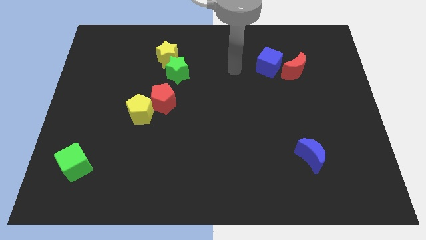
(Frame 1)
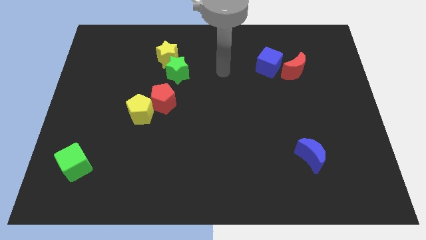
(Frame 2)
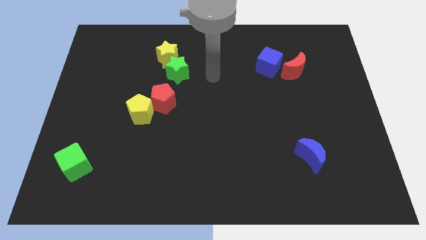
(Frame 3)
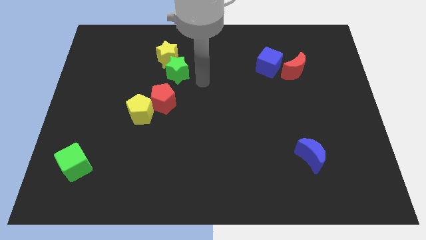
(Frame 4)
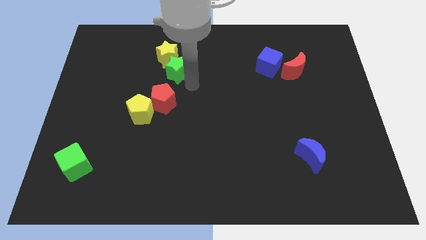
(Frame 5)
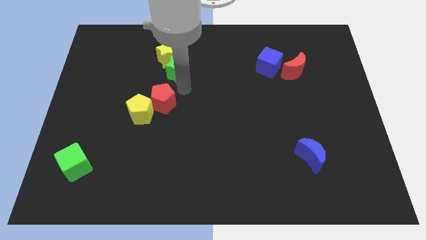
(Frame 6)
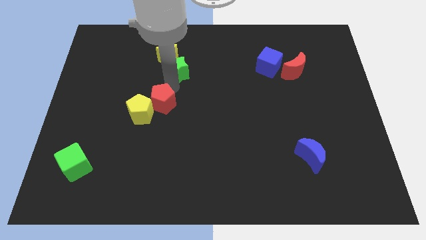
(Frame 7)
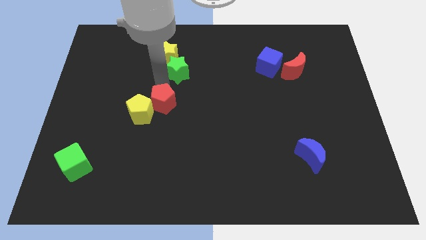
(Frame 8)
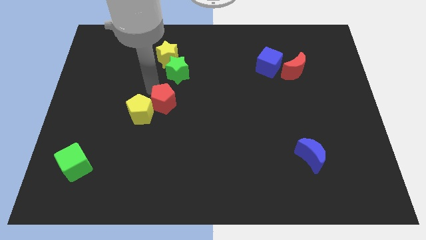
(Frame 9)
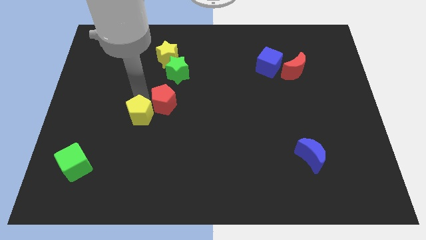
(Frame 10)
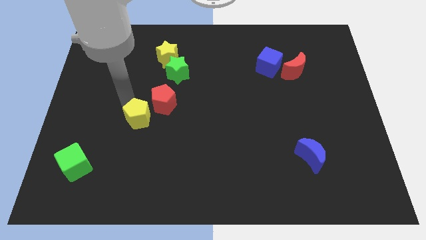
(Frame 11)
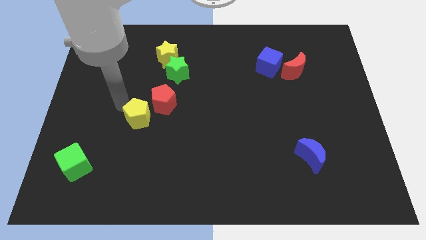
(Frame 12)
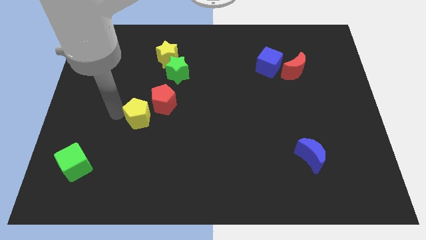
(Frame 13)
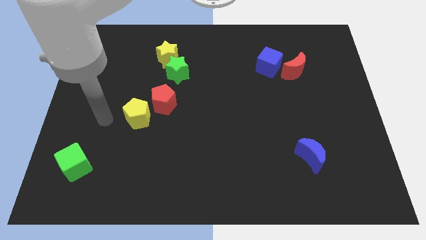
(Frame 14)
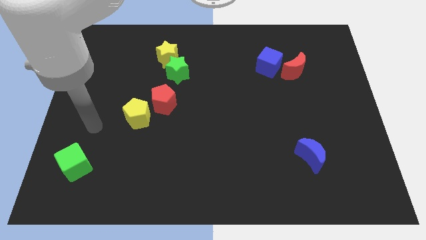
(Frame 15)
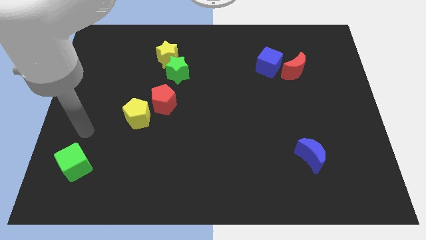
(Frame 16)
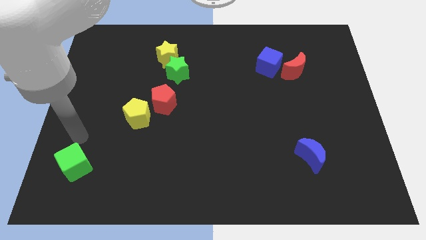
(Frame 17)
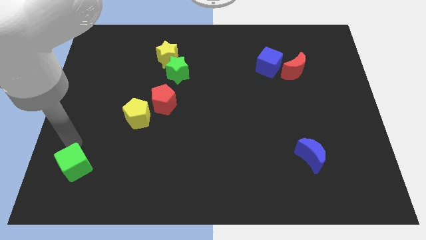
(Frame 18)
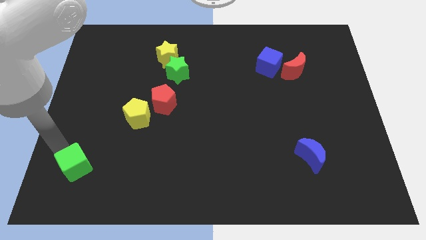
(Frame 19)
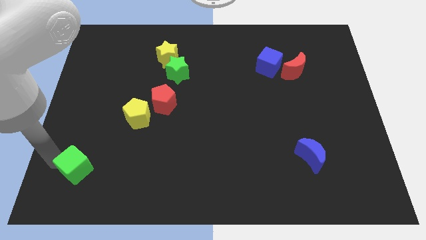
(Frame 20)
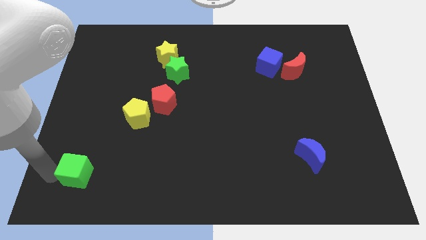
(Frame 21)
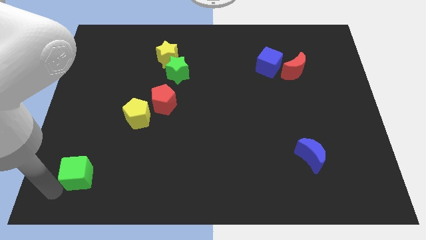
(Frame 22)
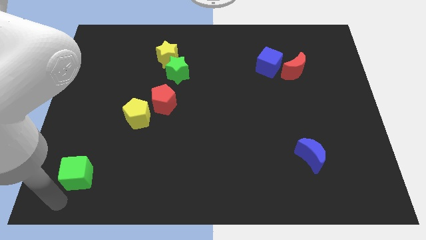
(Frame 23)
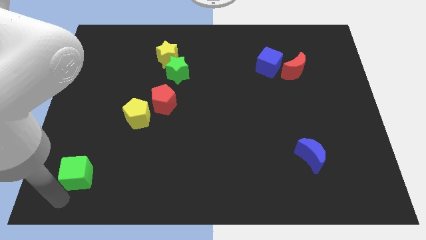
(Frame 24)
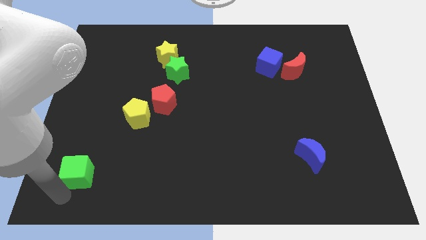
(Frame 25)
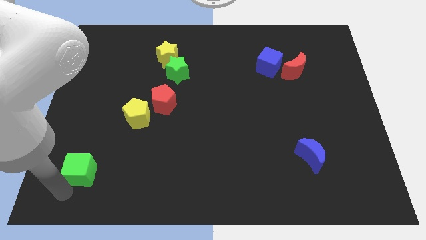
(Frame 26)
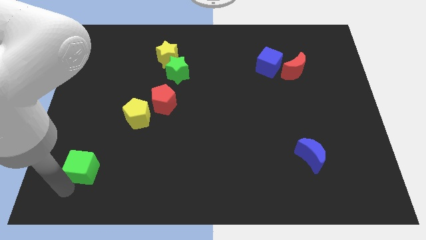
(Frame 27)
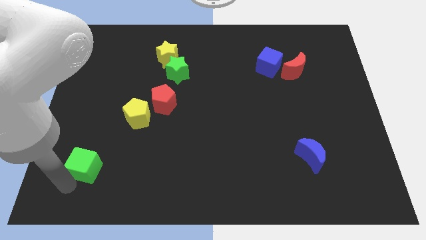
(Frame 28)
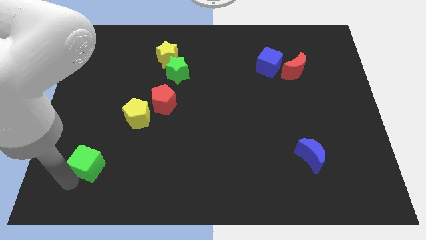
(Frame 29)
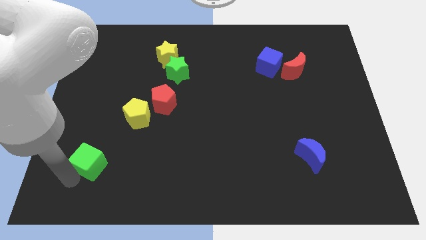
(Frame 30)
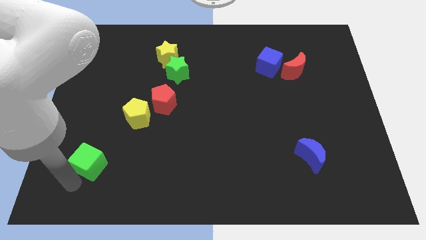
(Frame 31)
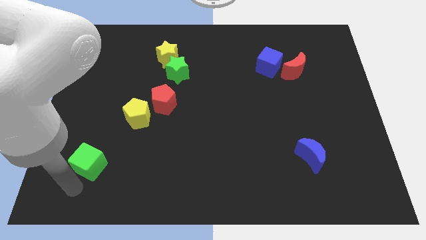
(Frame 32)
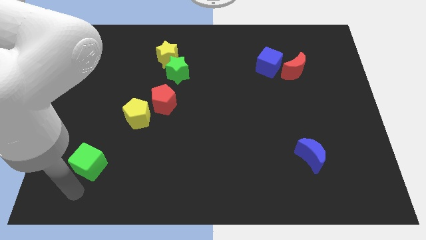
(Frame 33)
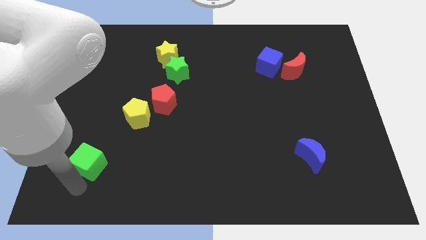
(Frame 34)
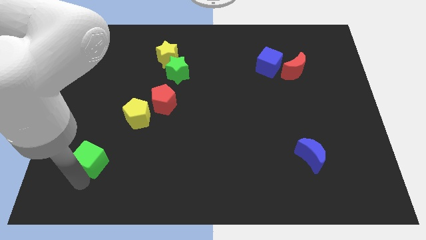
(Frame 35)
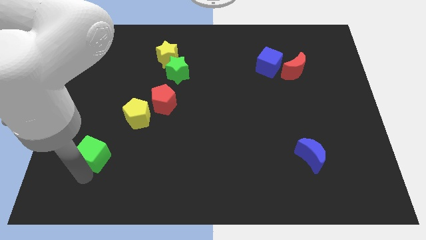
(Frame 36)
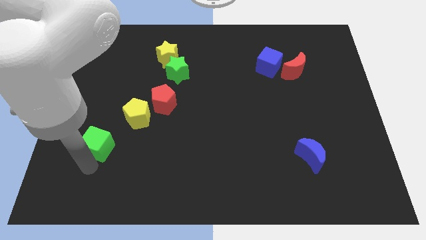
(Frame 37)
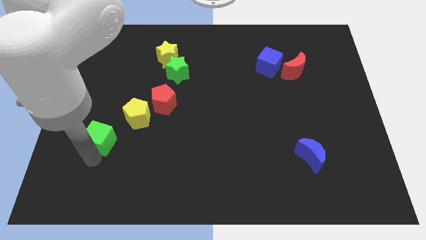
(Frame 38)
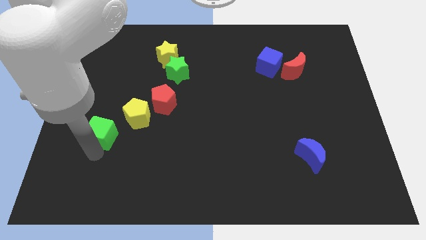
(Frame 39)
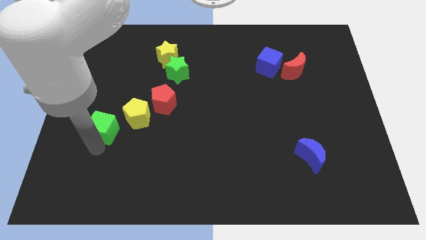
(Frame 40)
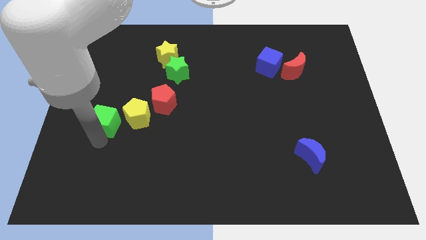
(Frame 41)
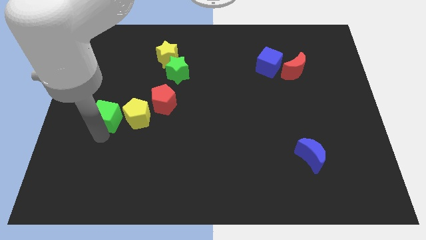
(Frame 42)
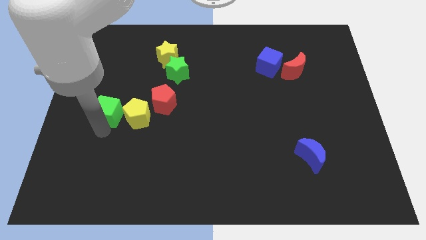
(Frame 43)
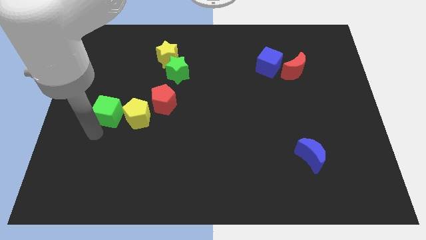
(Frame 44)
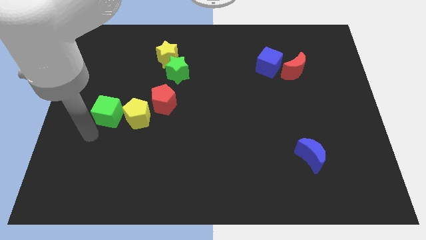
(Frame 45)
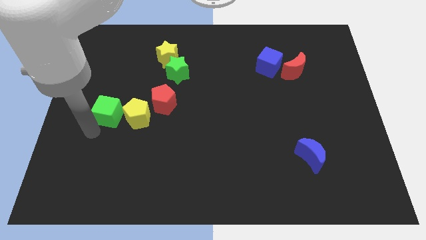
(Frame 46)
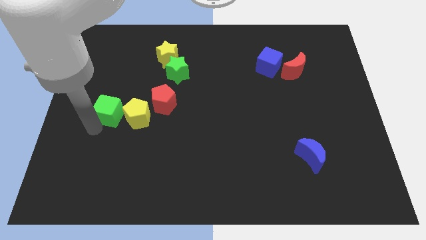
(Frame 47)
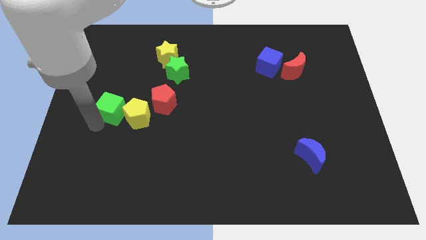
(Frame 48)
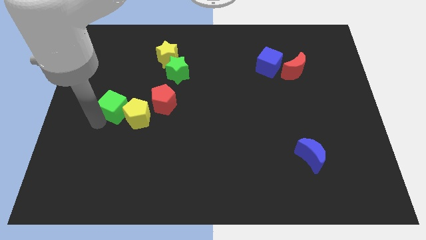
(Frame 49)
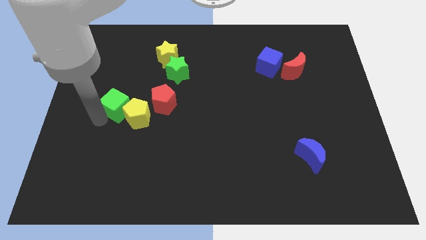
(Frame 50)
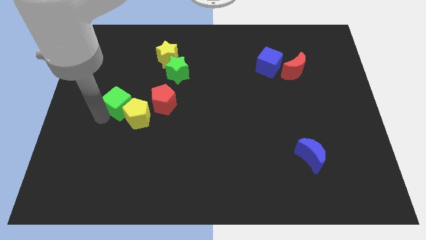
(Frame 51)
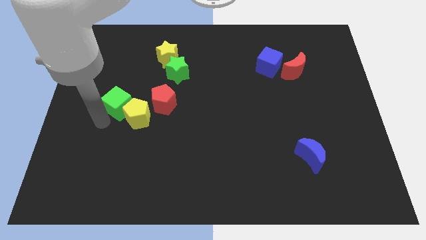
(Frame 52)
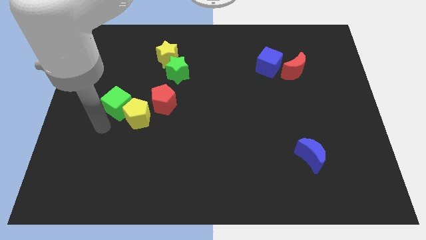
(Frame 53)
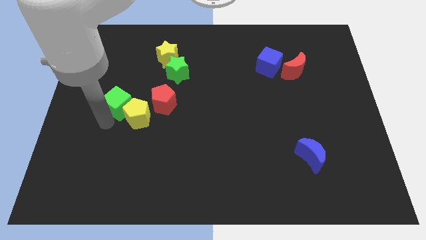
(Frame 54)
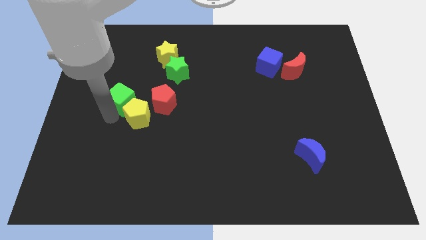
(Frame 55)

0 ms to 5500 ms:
move the green cube above the yellow pentagon

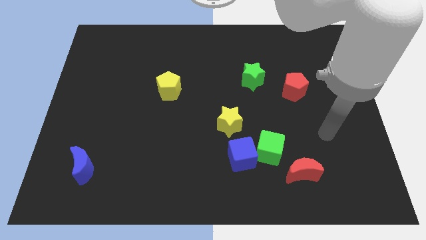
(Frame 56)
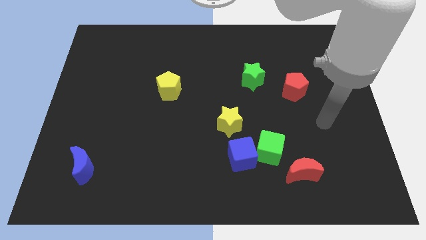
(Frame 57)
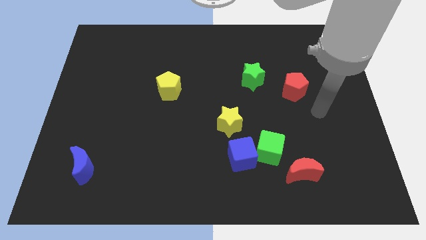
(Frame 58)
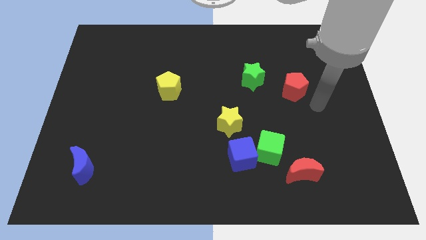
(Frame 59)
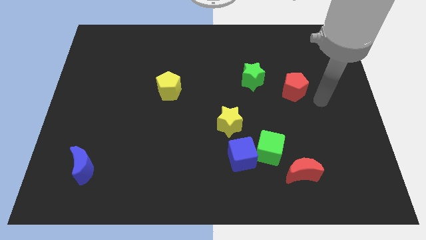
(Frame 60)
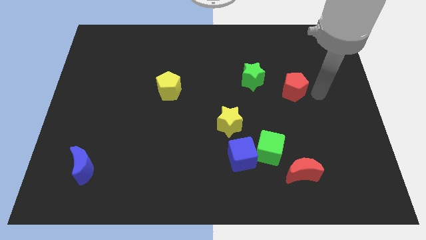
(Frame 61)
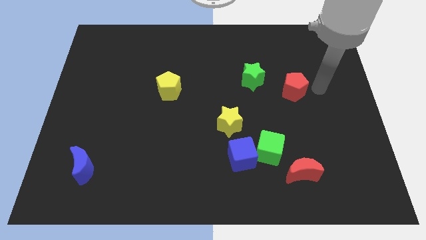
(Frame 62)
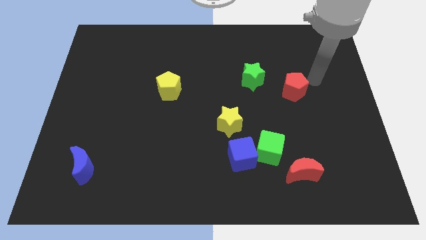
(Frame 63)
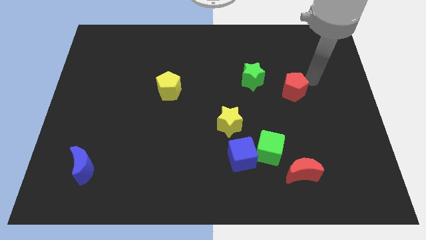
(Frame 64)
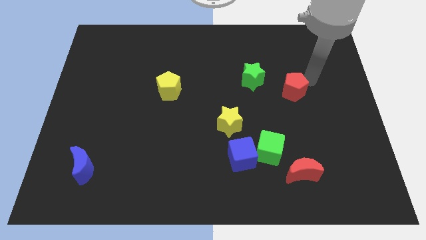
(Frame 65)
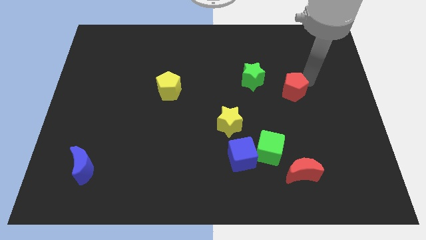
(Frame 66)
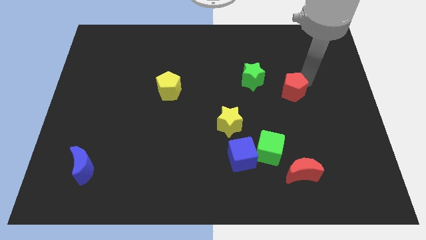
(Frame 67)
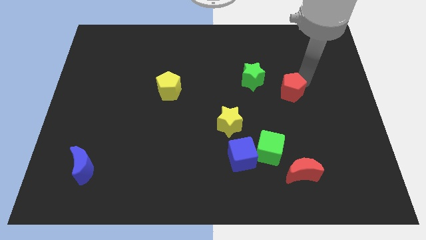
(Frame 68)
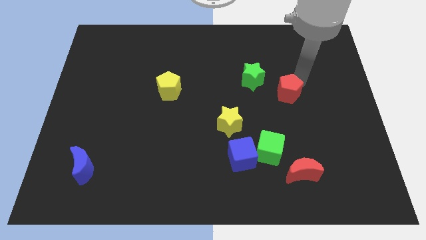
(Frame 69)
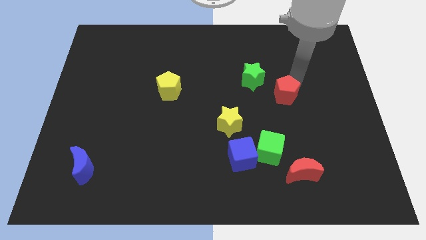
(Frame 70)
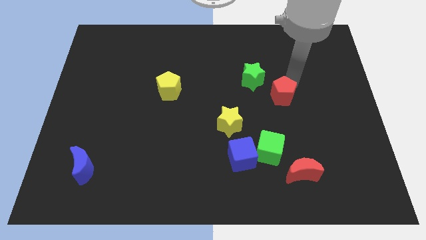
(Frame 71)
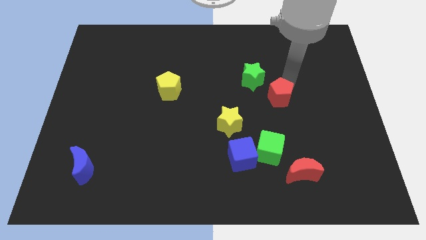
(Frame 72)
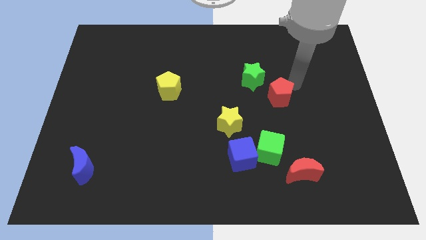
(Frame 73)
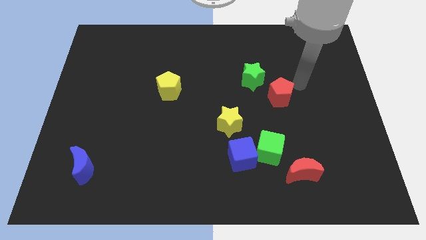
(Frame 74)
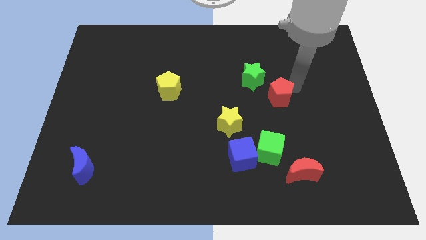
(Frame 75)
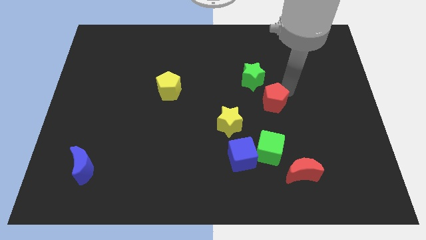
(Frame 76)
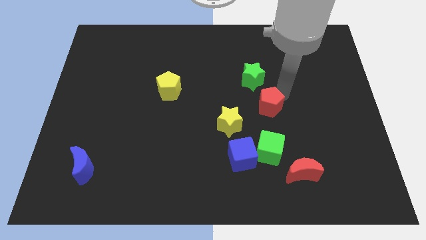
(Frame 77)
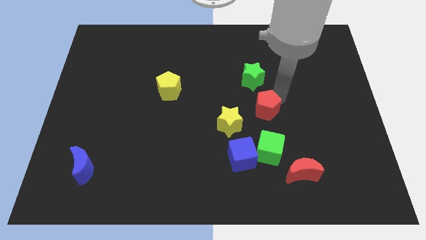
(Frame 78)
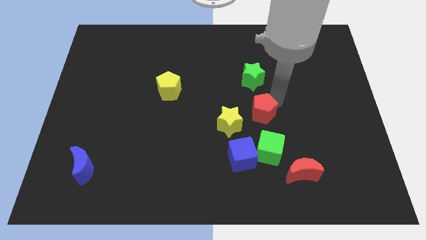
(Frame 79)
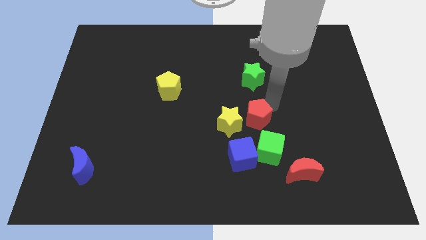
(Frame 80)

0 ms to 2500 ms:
slide the red pentagon to the top side of the blue cube
